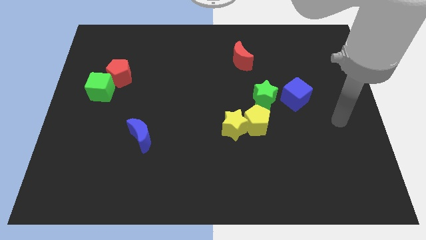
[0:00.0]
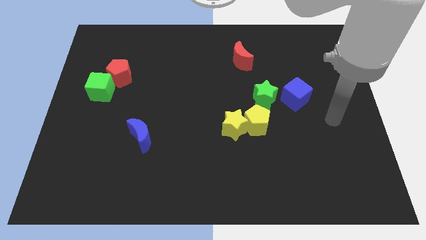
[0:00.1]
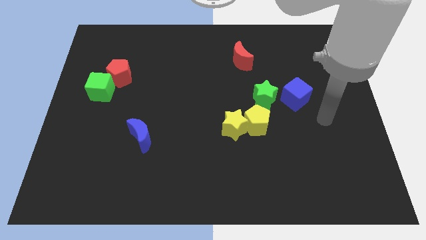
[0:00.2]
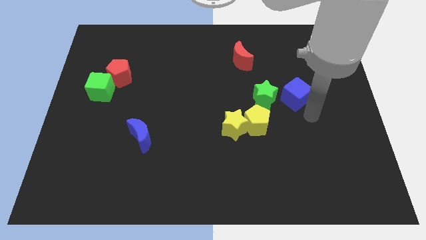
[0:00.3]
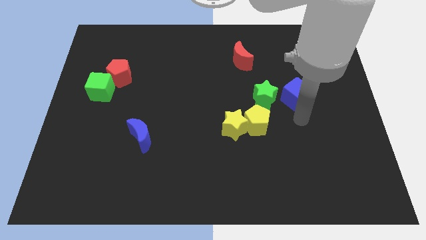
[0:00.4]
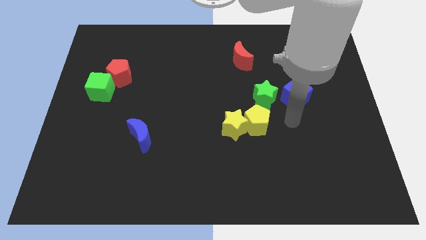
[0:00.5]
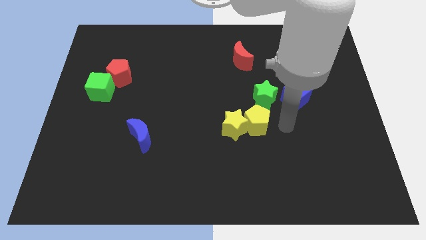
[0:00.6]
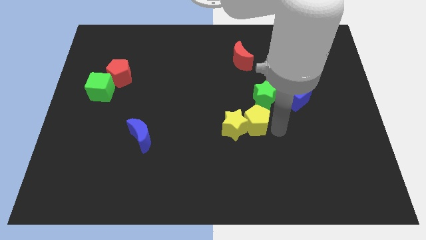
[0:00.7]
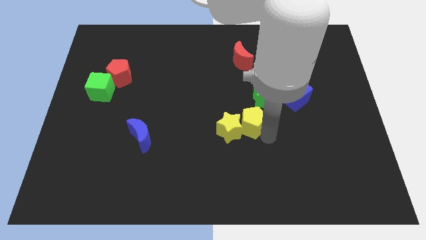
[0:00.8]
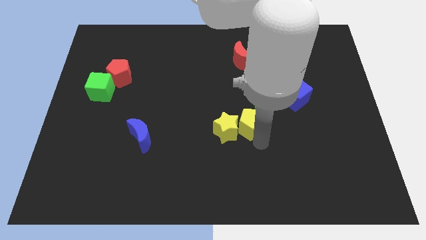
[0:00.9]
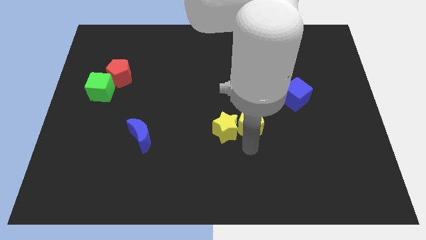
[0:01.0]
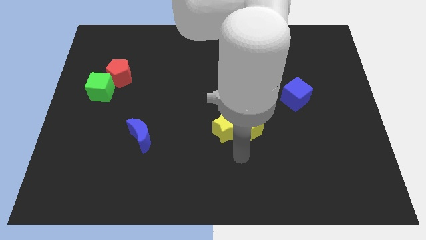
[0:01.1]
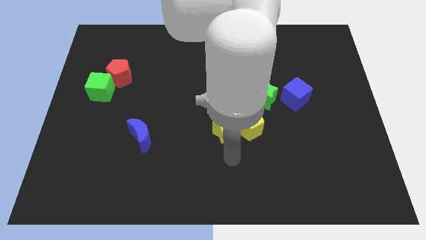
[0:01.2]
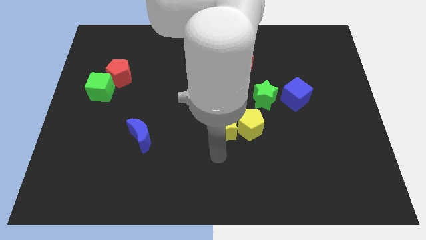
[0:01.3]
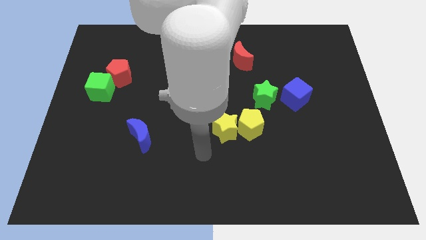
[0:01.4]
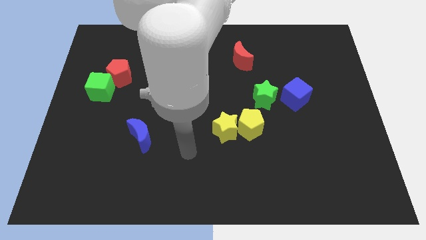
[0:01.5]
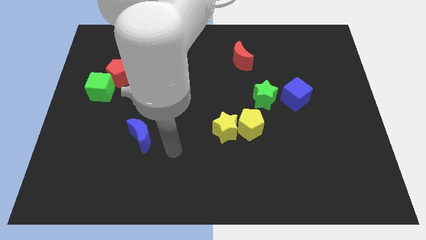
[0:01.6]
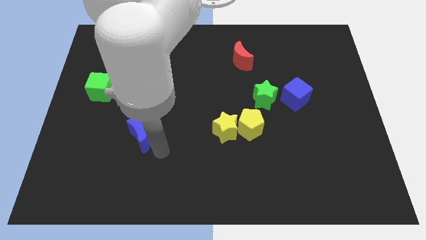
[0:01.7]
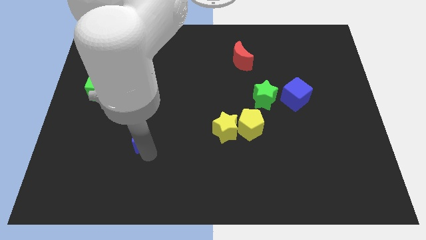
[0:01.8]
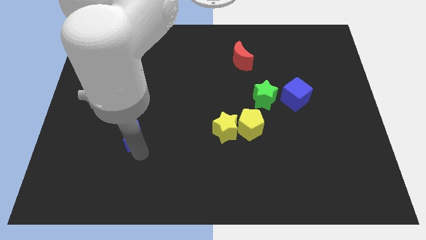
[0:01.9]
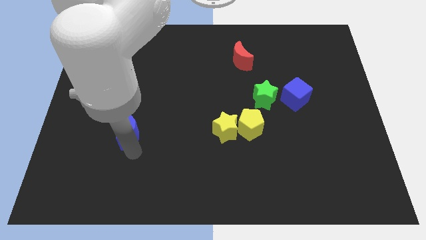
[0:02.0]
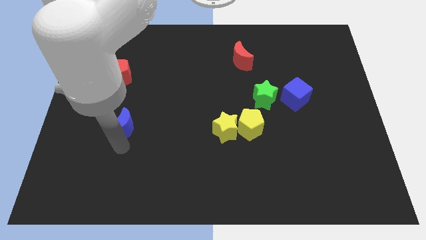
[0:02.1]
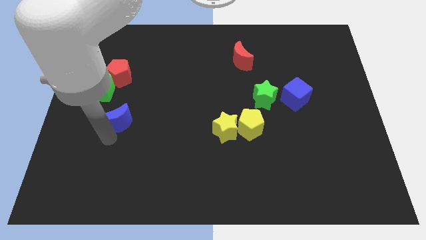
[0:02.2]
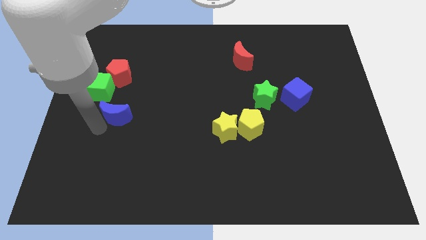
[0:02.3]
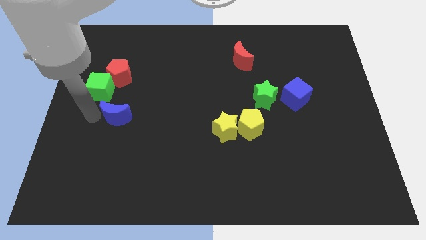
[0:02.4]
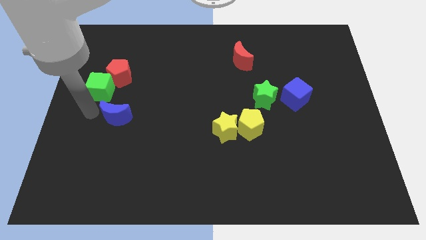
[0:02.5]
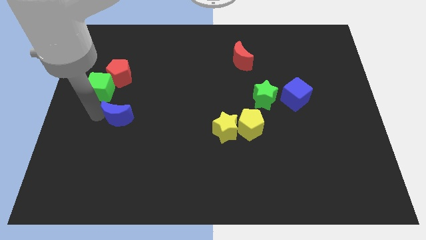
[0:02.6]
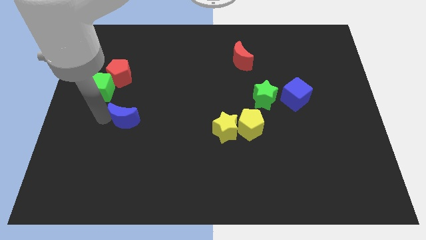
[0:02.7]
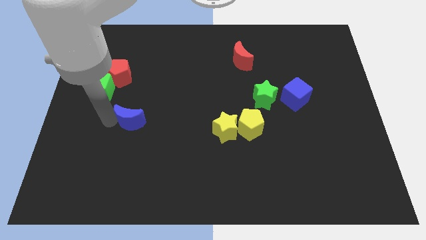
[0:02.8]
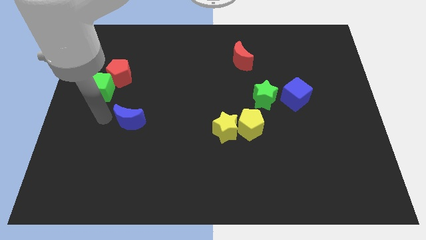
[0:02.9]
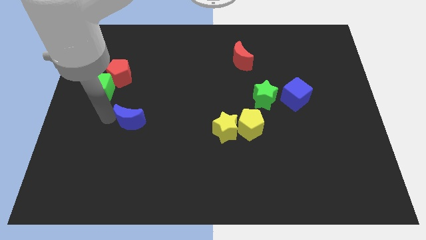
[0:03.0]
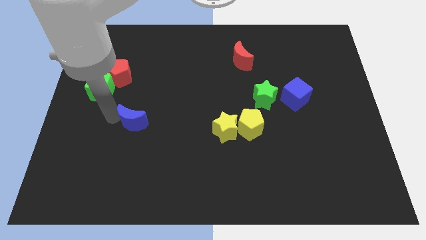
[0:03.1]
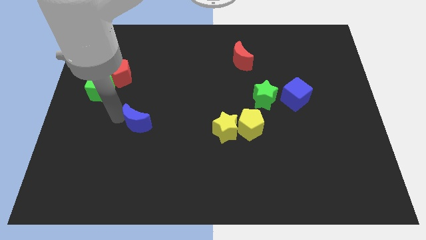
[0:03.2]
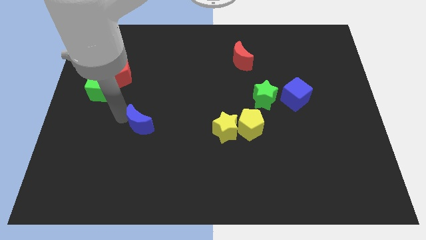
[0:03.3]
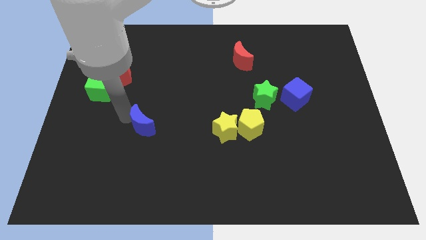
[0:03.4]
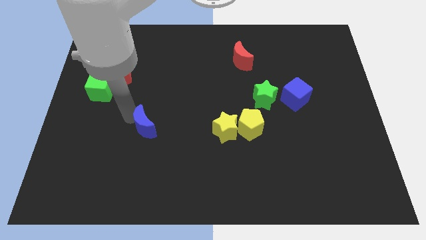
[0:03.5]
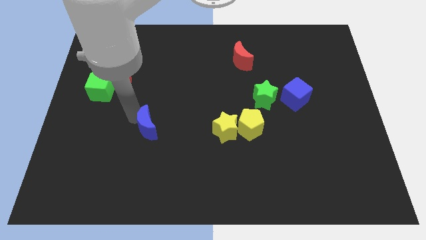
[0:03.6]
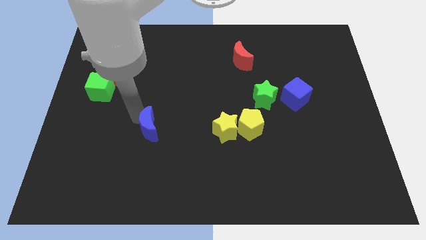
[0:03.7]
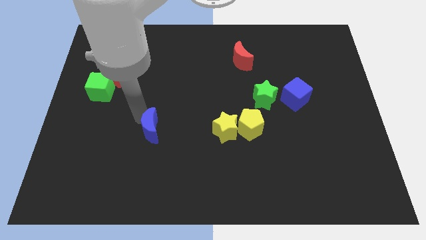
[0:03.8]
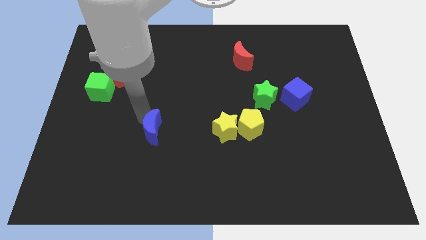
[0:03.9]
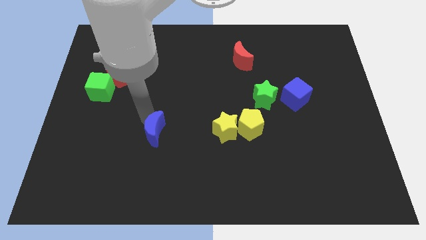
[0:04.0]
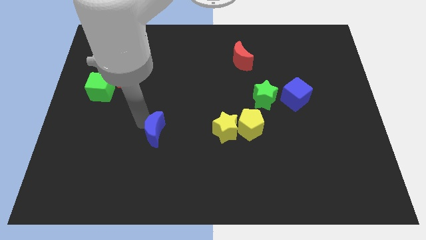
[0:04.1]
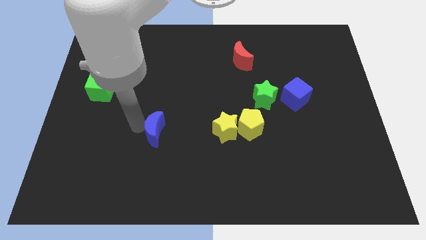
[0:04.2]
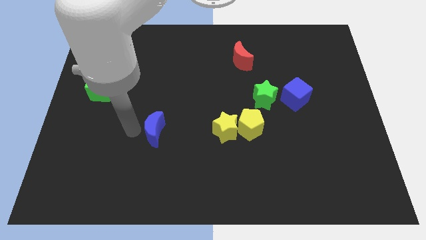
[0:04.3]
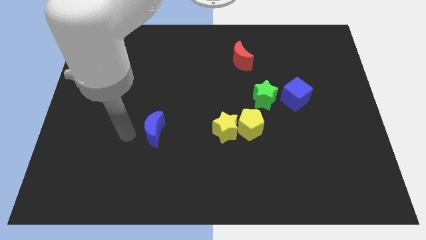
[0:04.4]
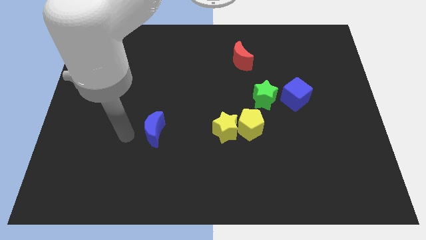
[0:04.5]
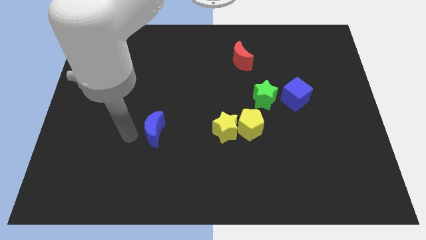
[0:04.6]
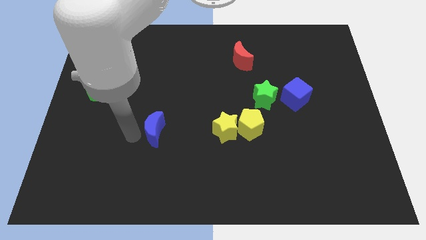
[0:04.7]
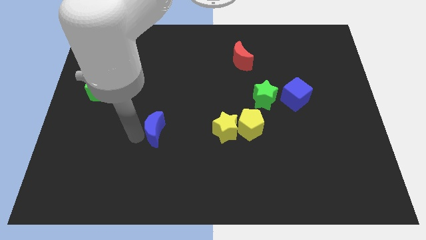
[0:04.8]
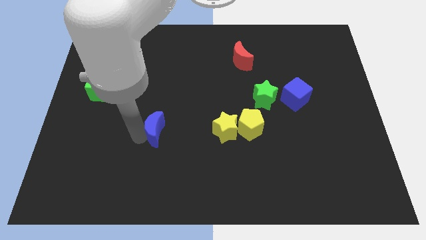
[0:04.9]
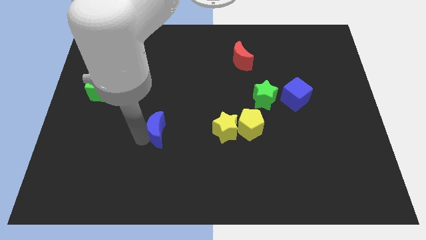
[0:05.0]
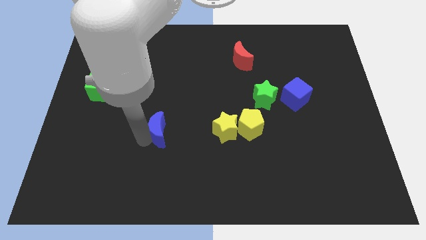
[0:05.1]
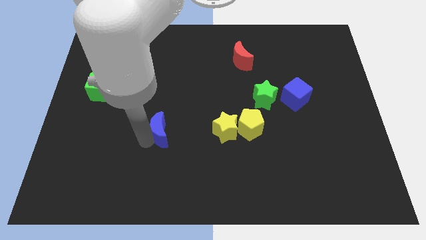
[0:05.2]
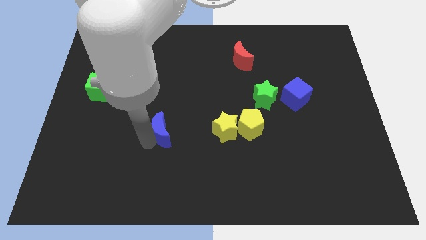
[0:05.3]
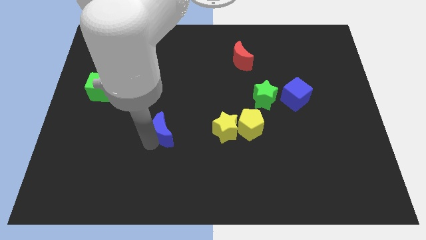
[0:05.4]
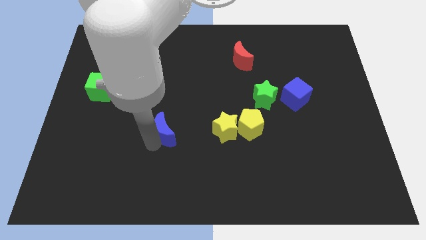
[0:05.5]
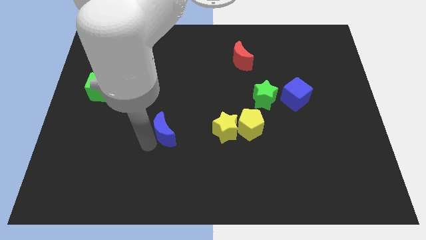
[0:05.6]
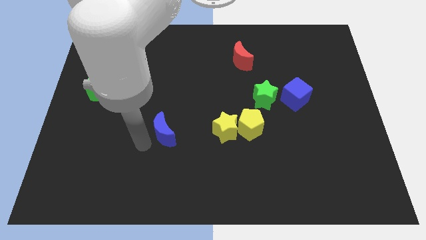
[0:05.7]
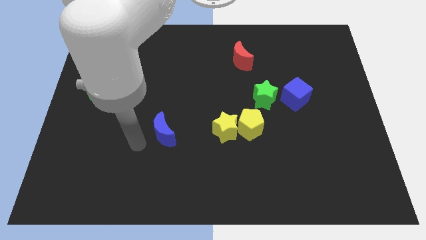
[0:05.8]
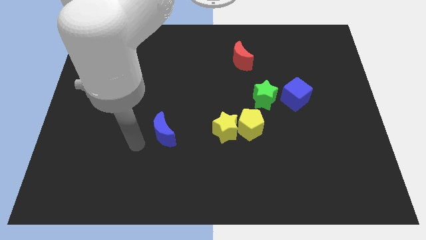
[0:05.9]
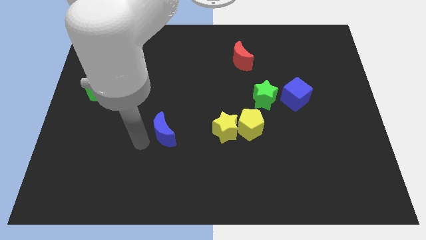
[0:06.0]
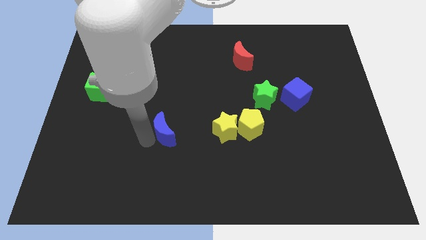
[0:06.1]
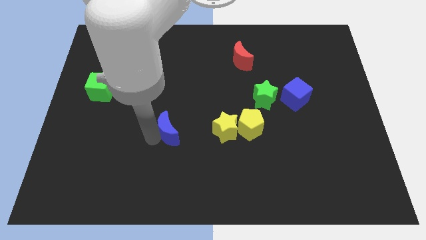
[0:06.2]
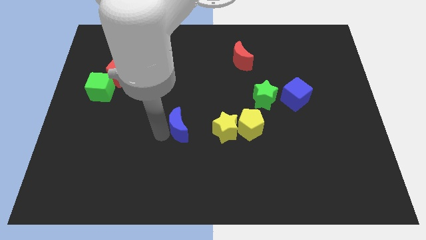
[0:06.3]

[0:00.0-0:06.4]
push the blue moon left of the yellow pentagon
